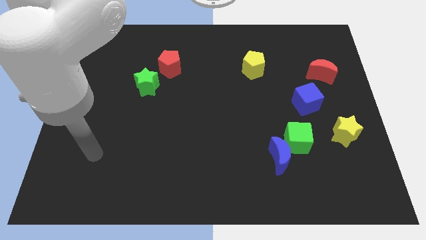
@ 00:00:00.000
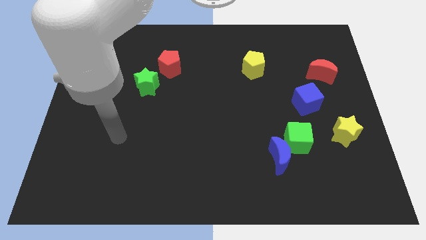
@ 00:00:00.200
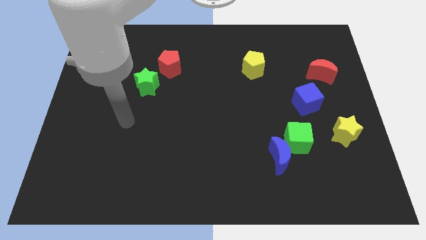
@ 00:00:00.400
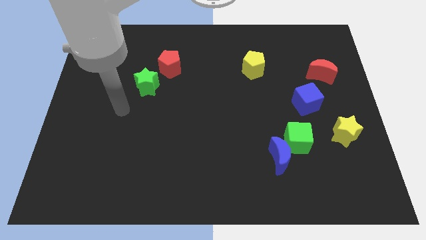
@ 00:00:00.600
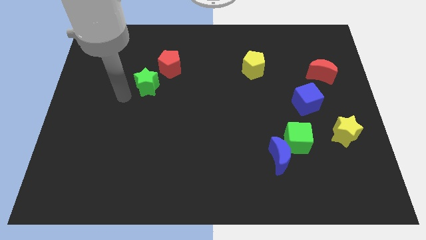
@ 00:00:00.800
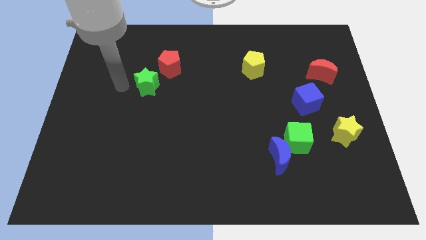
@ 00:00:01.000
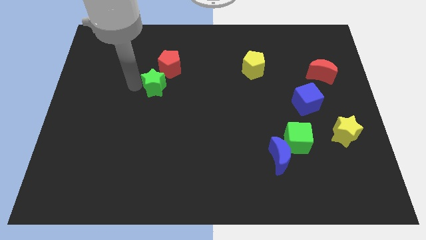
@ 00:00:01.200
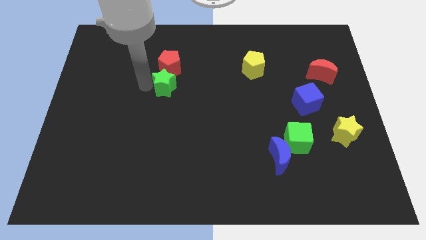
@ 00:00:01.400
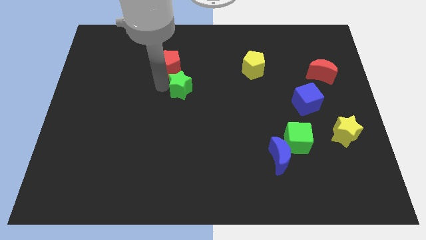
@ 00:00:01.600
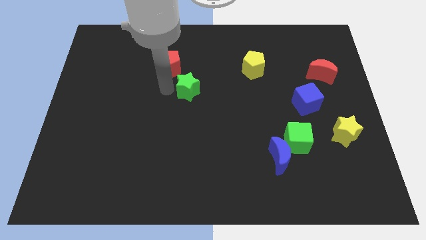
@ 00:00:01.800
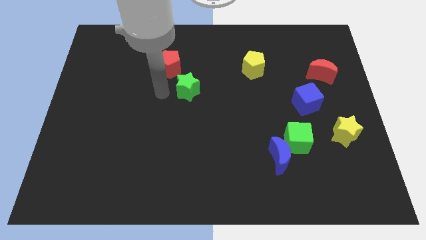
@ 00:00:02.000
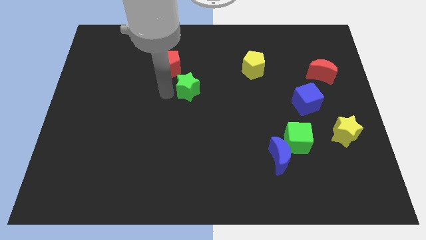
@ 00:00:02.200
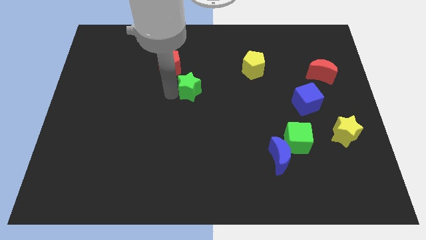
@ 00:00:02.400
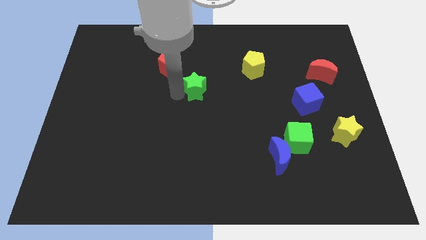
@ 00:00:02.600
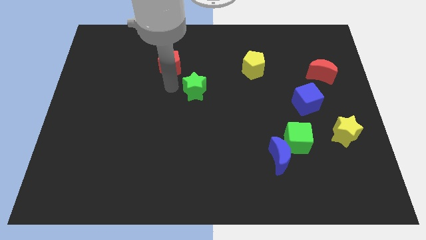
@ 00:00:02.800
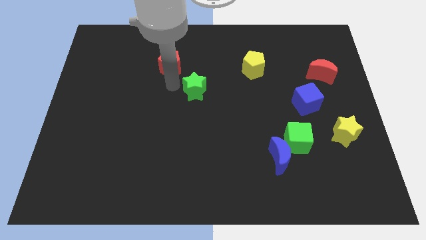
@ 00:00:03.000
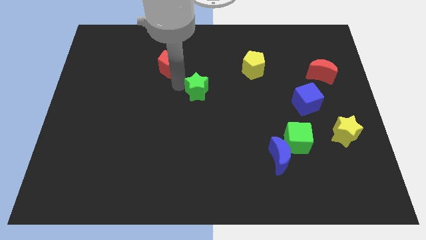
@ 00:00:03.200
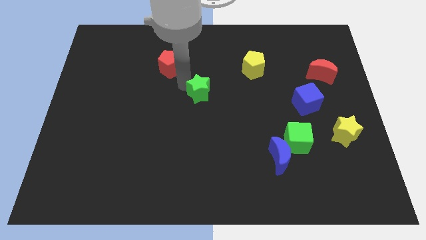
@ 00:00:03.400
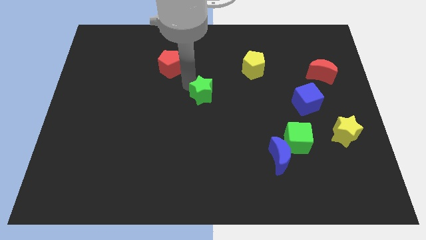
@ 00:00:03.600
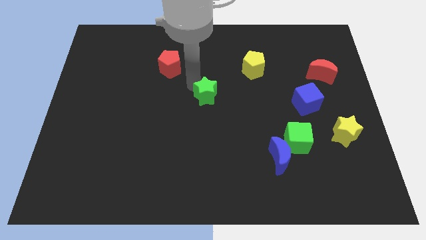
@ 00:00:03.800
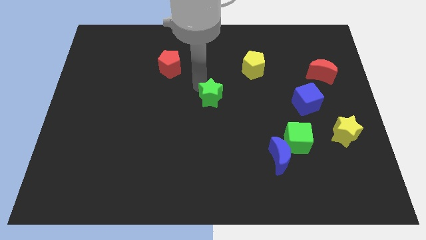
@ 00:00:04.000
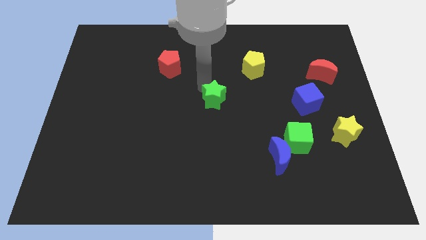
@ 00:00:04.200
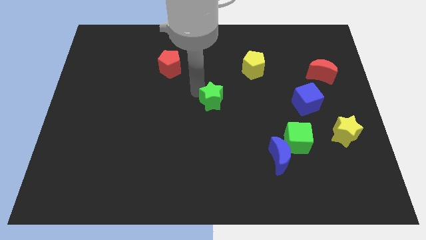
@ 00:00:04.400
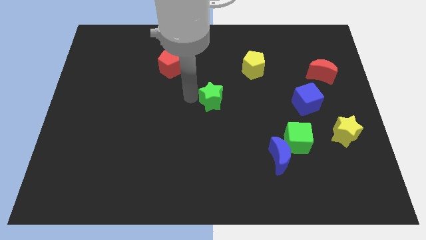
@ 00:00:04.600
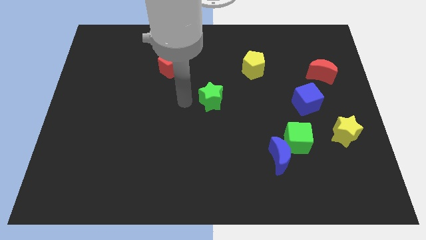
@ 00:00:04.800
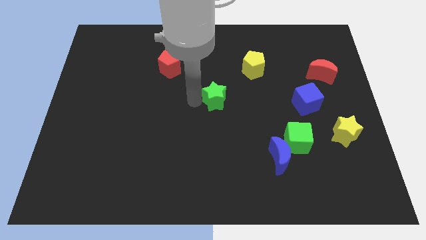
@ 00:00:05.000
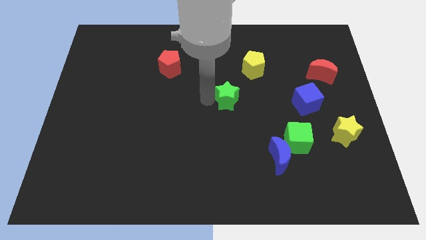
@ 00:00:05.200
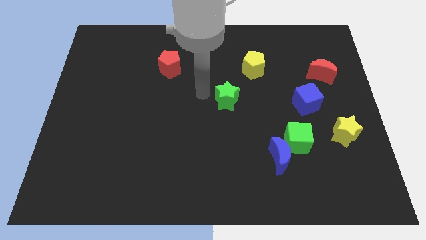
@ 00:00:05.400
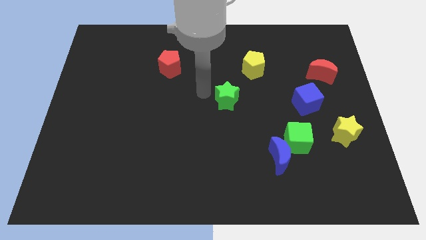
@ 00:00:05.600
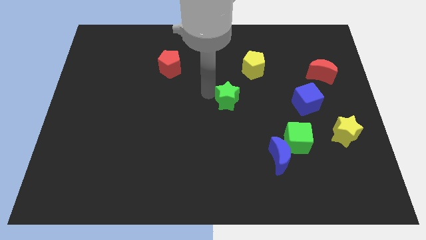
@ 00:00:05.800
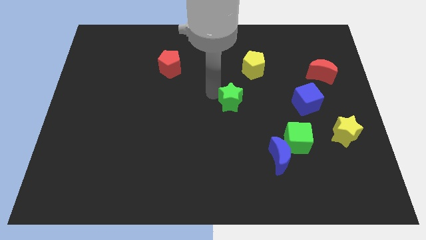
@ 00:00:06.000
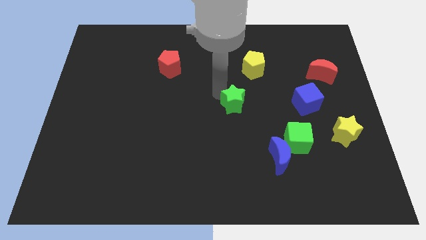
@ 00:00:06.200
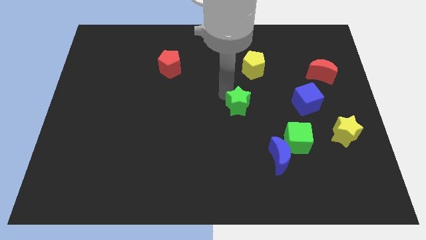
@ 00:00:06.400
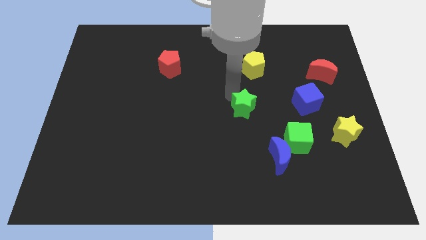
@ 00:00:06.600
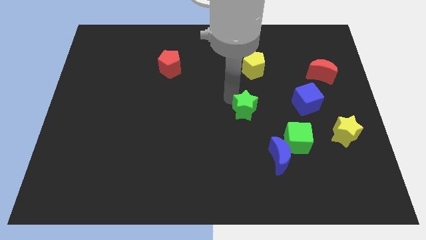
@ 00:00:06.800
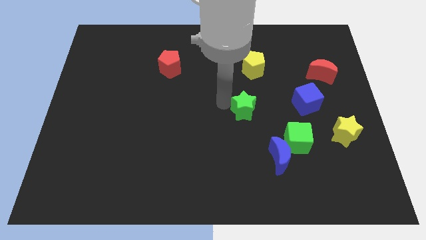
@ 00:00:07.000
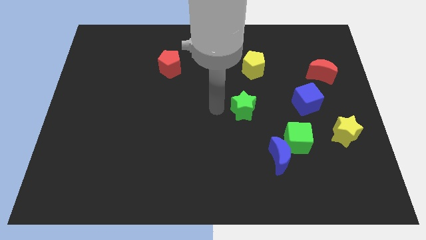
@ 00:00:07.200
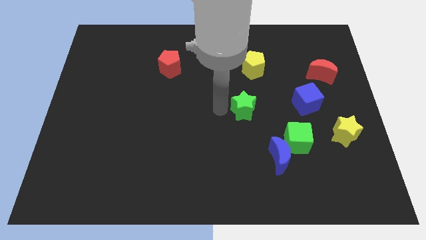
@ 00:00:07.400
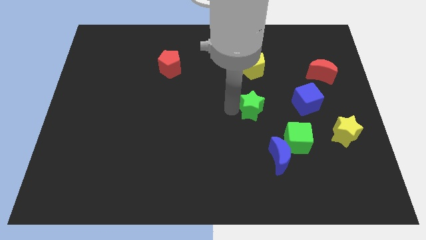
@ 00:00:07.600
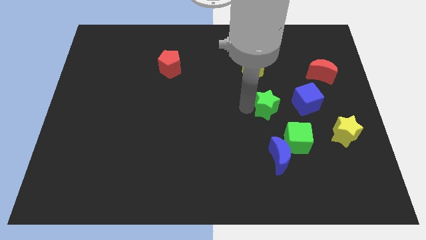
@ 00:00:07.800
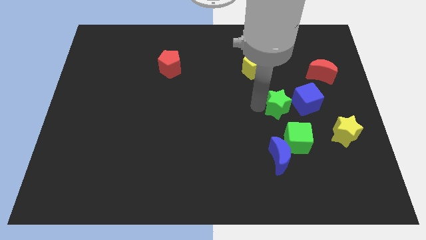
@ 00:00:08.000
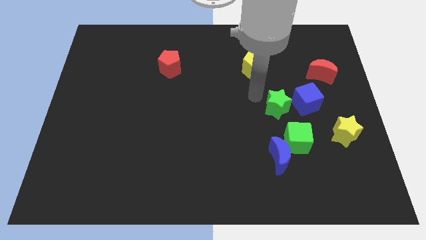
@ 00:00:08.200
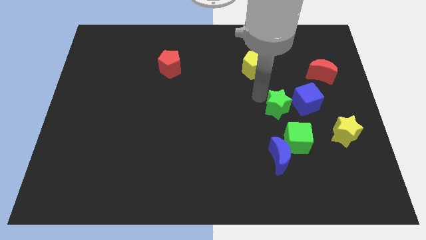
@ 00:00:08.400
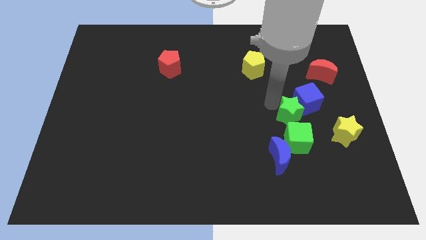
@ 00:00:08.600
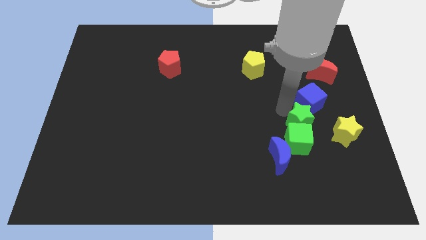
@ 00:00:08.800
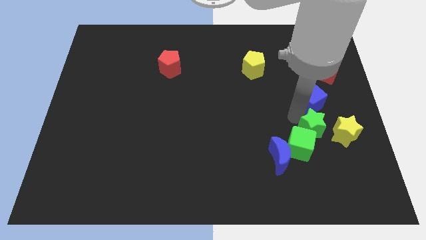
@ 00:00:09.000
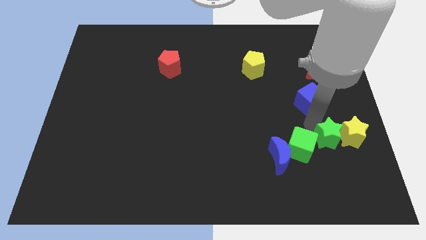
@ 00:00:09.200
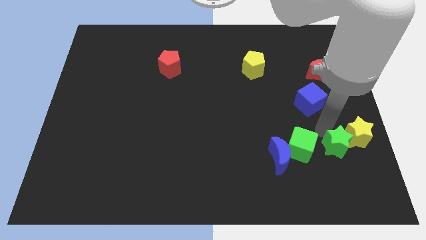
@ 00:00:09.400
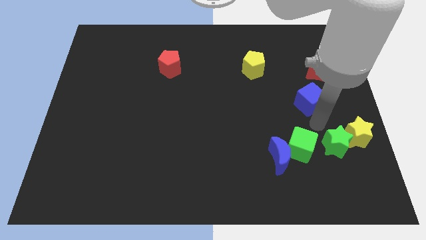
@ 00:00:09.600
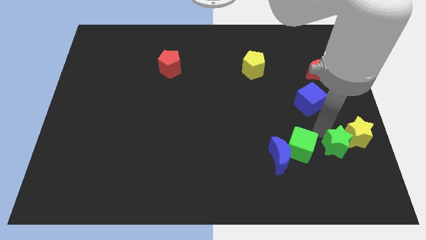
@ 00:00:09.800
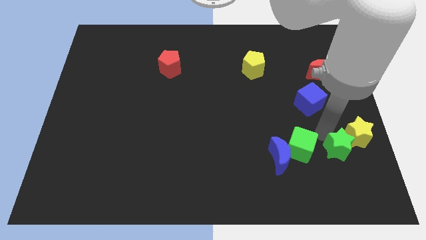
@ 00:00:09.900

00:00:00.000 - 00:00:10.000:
move the green star to the bottom side of the yellow star

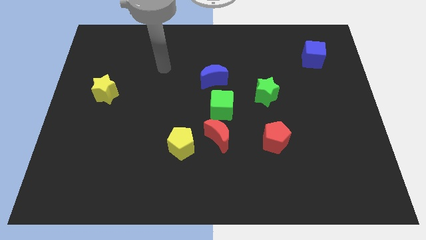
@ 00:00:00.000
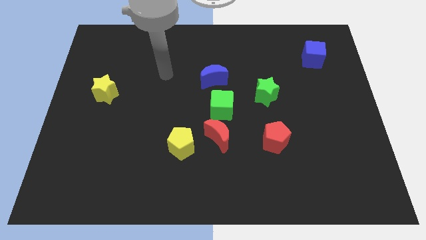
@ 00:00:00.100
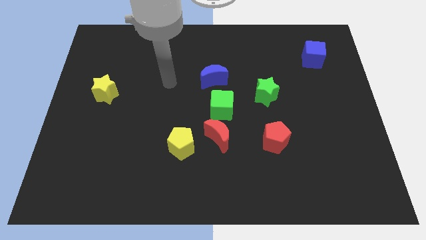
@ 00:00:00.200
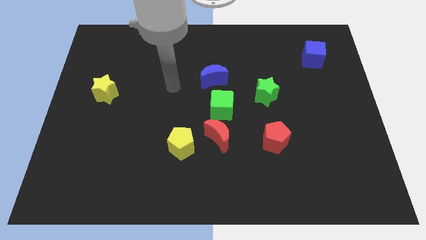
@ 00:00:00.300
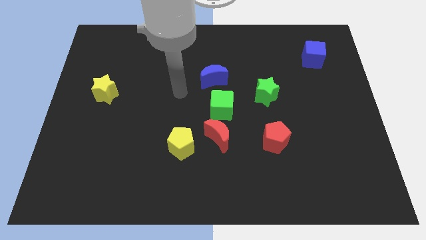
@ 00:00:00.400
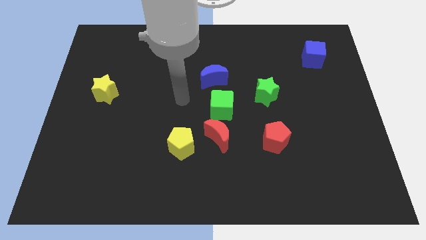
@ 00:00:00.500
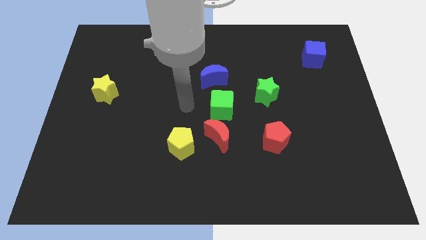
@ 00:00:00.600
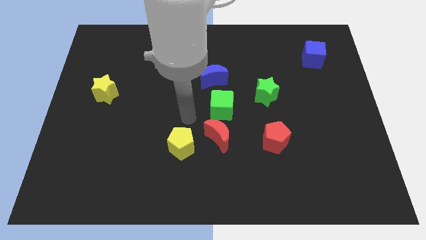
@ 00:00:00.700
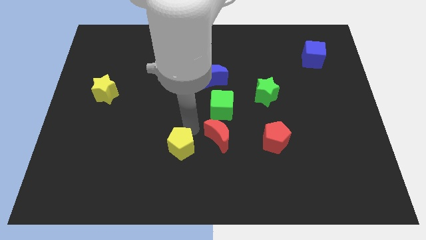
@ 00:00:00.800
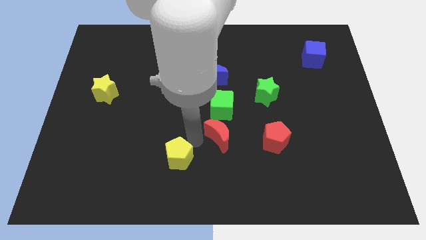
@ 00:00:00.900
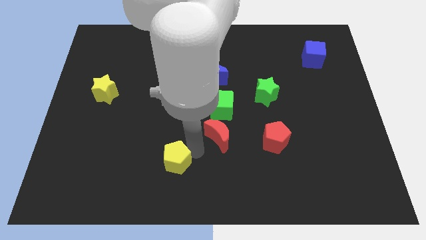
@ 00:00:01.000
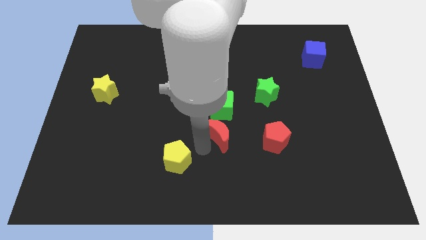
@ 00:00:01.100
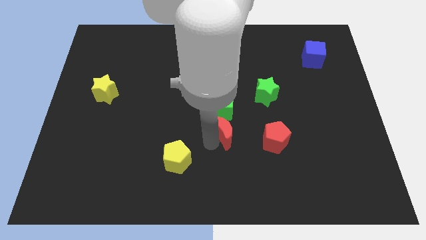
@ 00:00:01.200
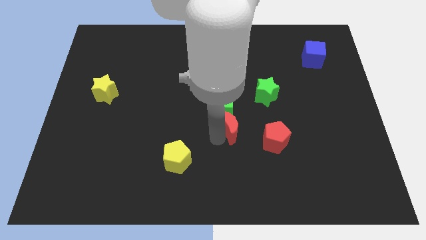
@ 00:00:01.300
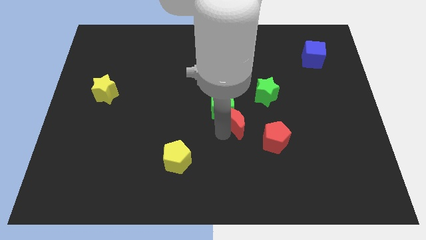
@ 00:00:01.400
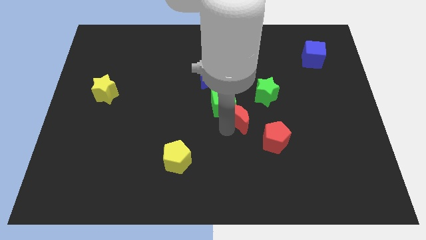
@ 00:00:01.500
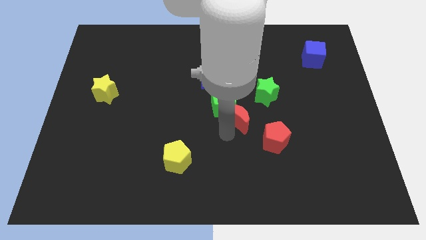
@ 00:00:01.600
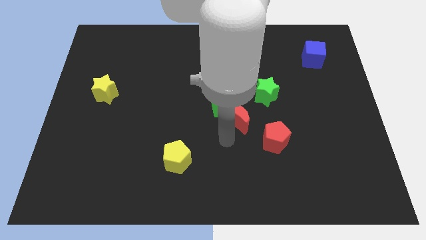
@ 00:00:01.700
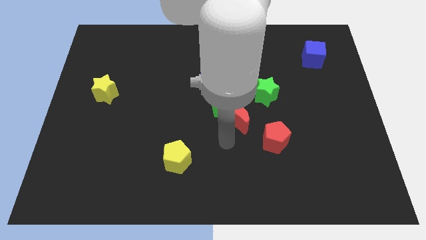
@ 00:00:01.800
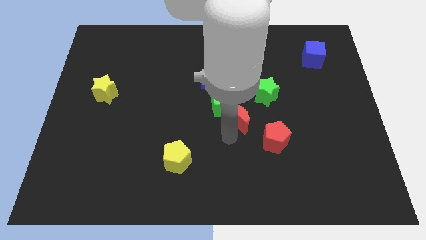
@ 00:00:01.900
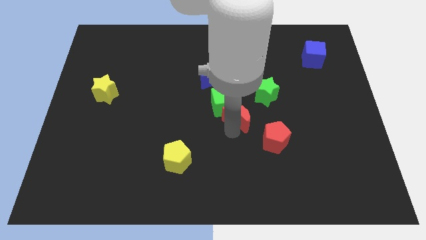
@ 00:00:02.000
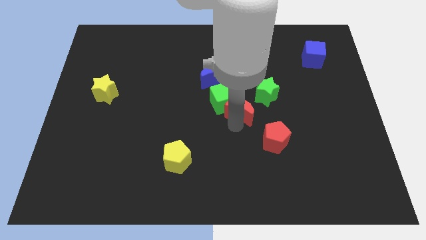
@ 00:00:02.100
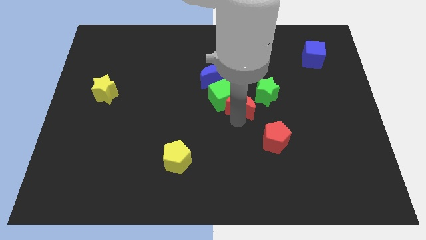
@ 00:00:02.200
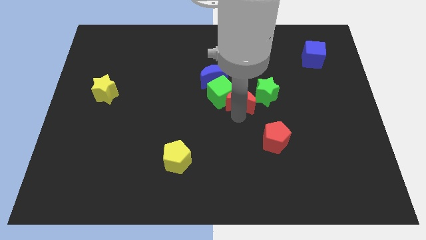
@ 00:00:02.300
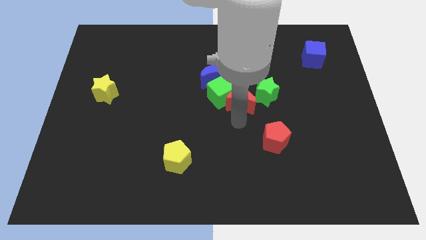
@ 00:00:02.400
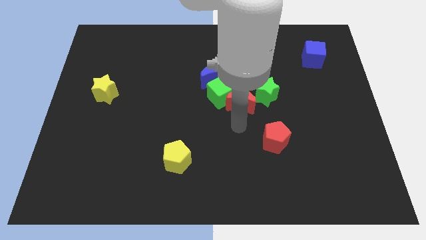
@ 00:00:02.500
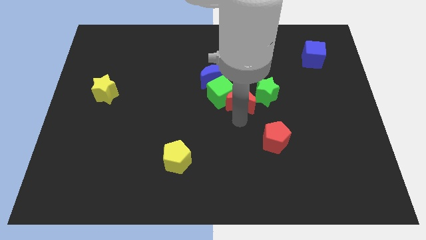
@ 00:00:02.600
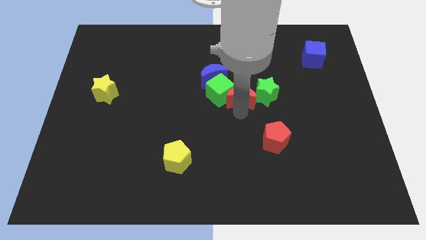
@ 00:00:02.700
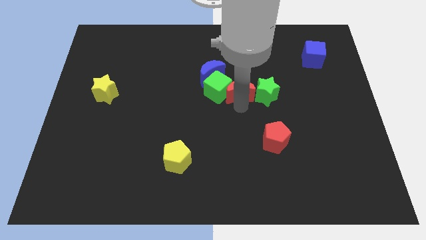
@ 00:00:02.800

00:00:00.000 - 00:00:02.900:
move the red moon to the top left side of the green star
